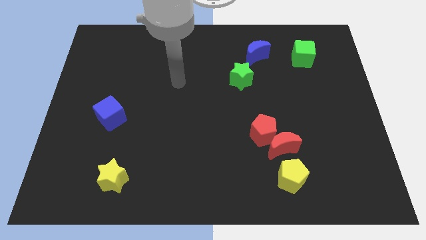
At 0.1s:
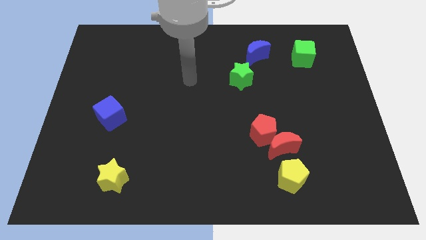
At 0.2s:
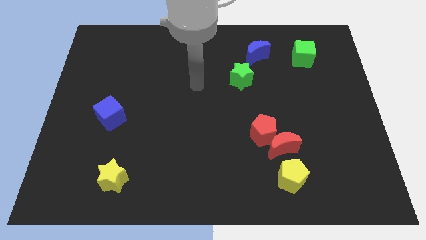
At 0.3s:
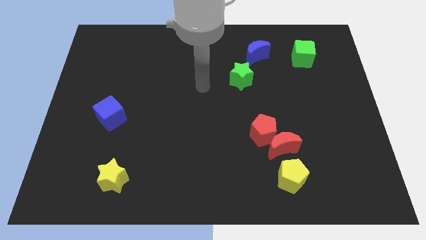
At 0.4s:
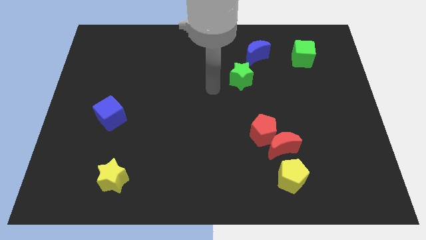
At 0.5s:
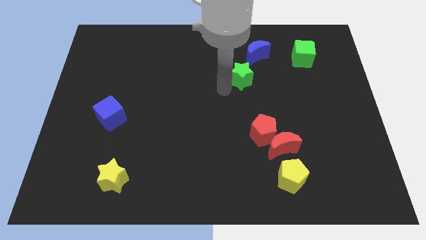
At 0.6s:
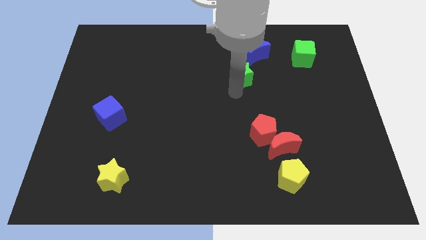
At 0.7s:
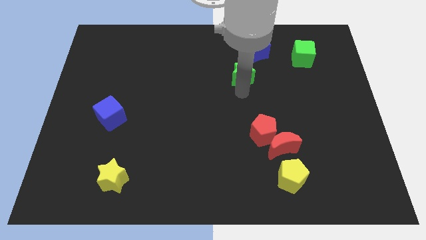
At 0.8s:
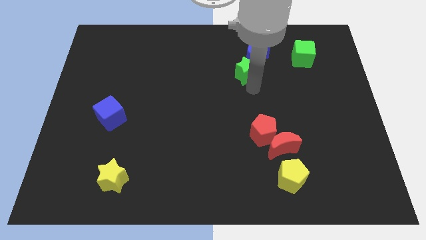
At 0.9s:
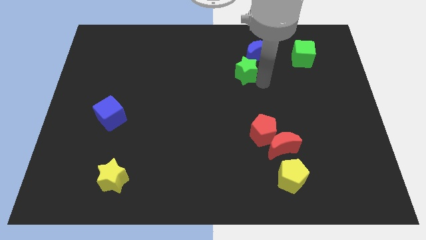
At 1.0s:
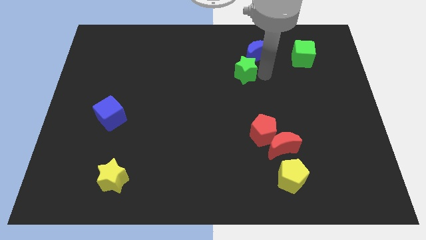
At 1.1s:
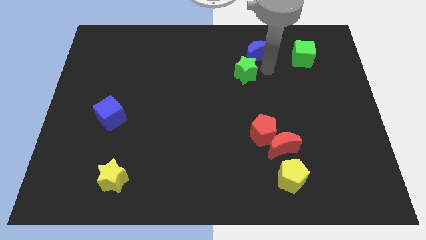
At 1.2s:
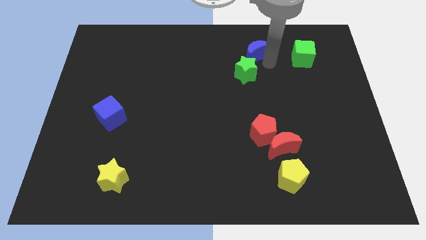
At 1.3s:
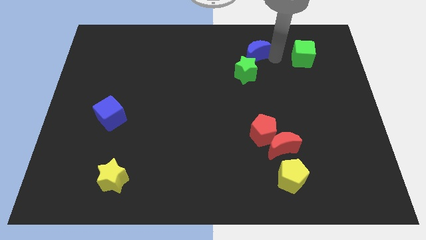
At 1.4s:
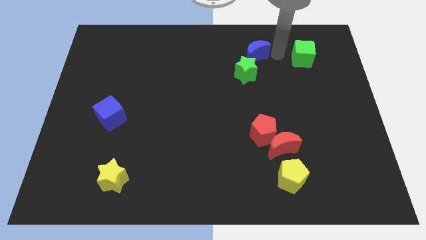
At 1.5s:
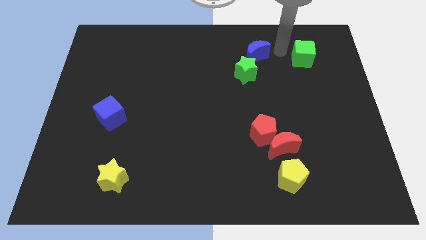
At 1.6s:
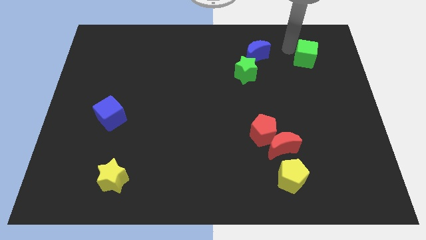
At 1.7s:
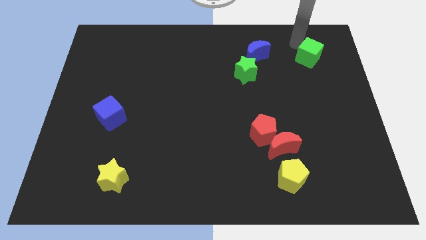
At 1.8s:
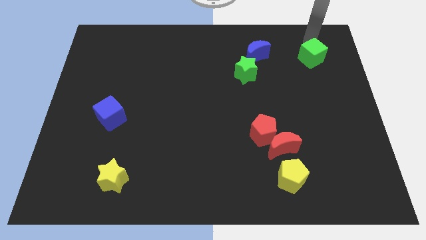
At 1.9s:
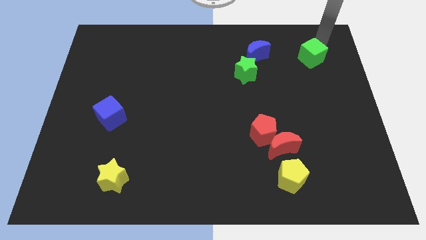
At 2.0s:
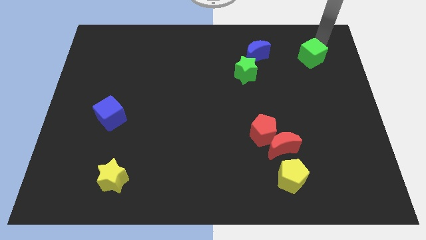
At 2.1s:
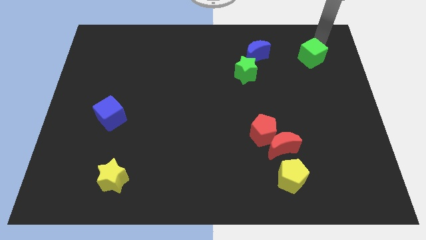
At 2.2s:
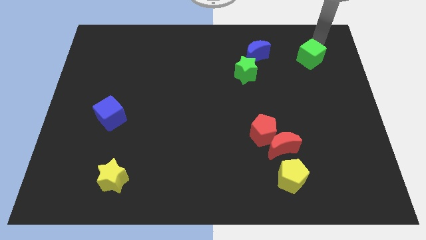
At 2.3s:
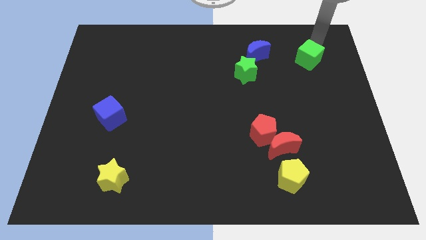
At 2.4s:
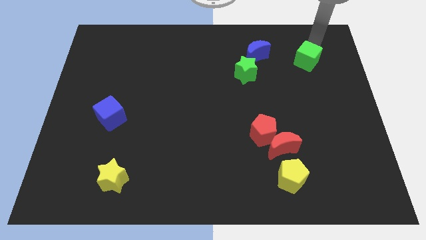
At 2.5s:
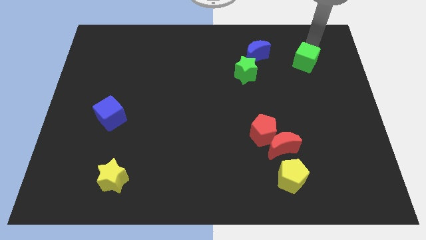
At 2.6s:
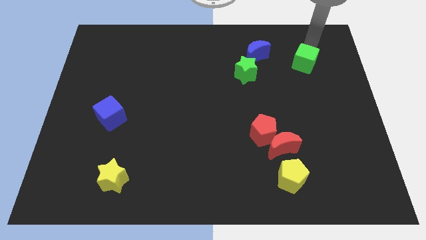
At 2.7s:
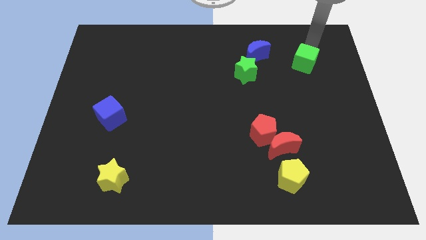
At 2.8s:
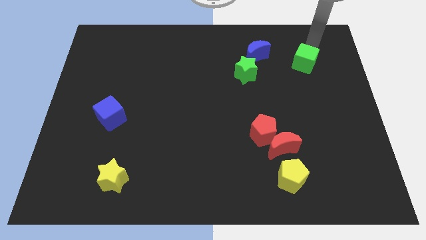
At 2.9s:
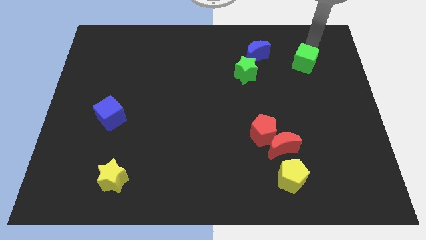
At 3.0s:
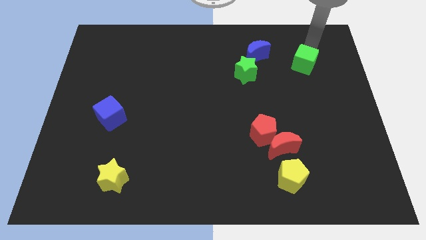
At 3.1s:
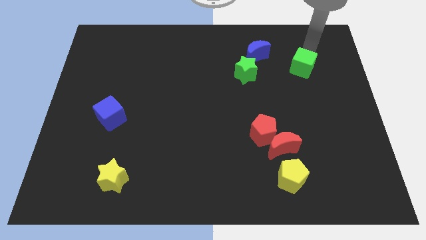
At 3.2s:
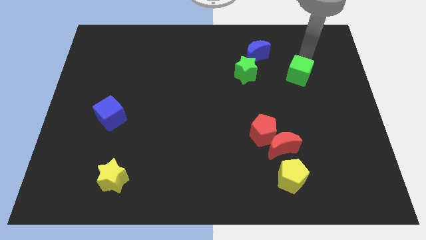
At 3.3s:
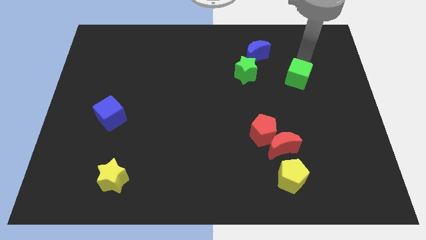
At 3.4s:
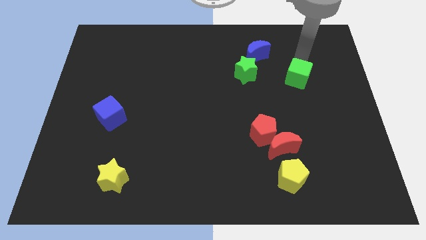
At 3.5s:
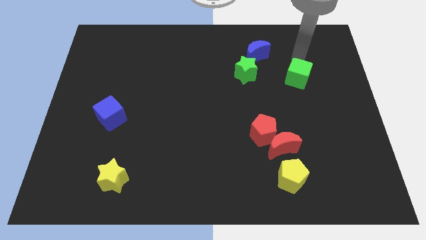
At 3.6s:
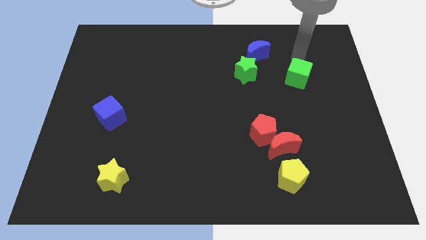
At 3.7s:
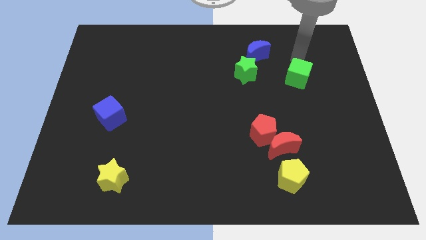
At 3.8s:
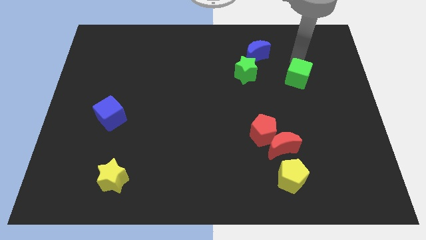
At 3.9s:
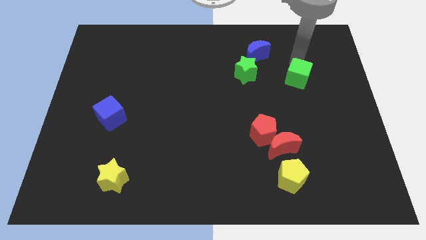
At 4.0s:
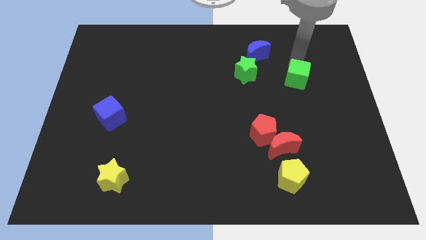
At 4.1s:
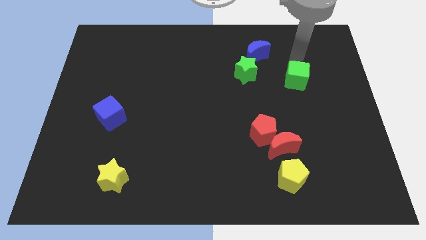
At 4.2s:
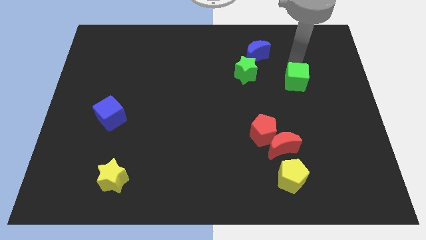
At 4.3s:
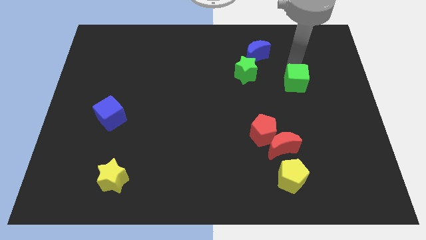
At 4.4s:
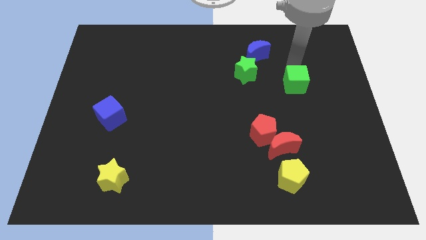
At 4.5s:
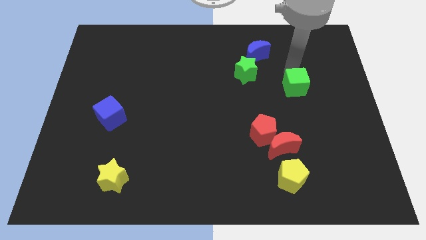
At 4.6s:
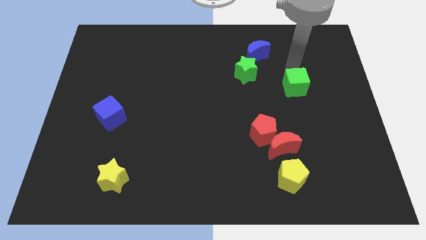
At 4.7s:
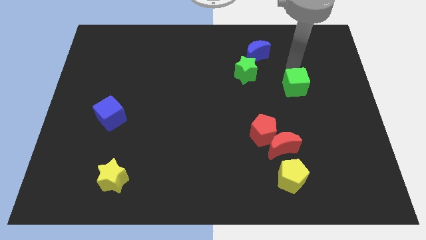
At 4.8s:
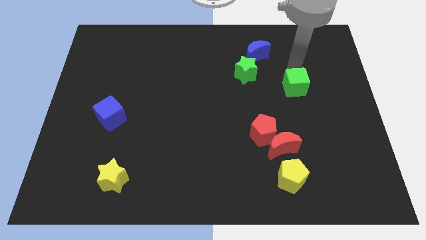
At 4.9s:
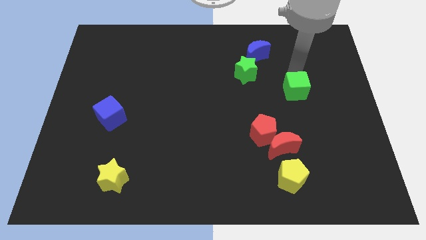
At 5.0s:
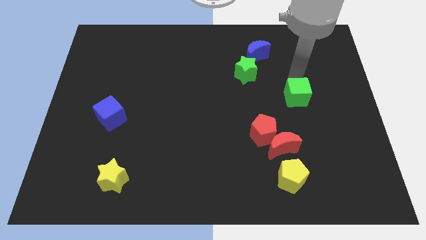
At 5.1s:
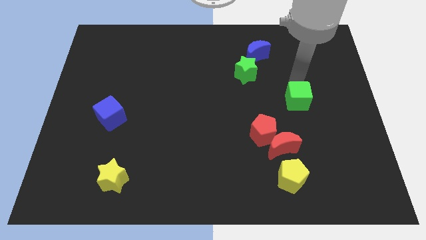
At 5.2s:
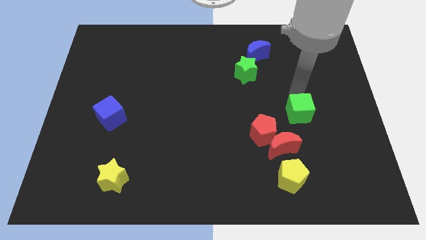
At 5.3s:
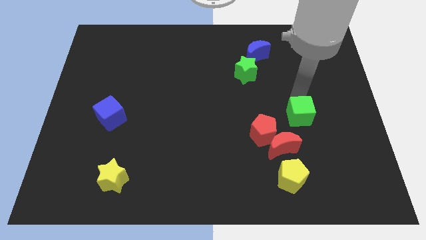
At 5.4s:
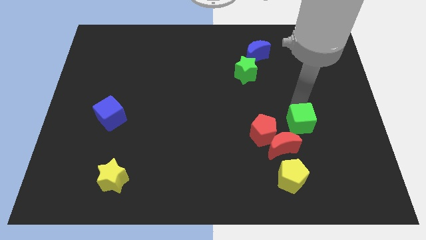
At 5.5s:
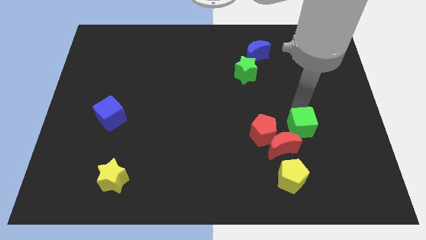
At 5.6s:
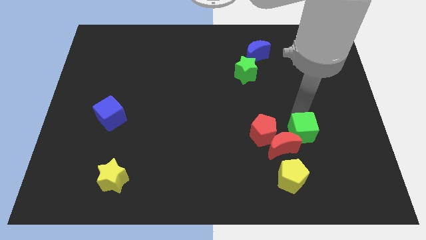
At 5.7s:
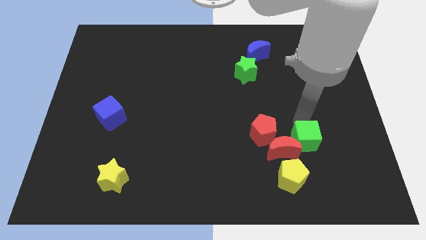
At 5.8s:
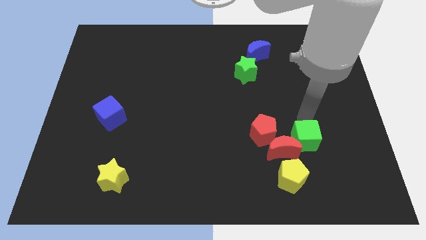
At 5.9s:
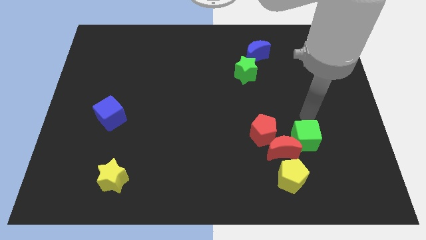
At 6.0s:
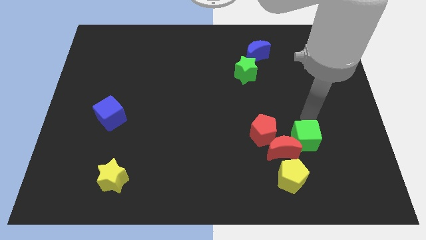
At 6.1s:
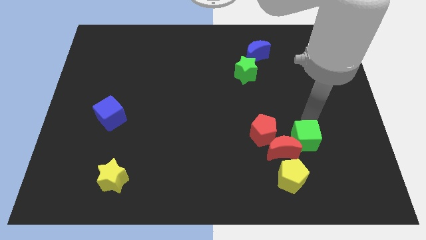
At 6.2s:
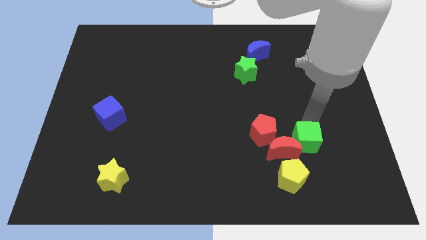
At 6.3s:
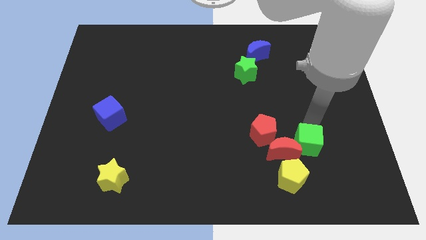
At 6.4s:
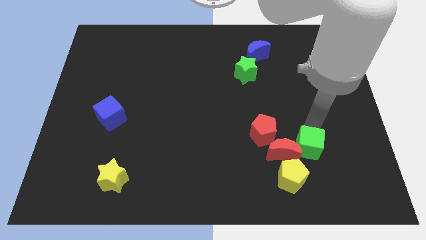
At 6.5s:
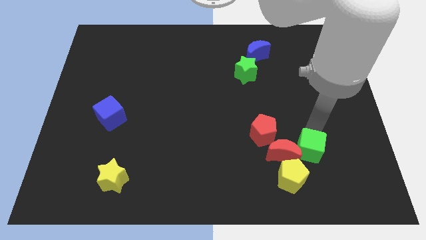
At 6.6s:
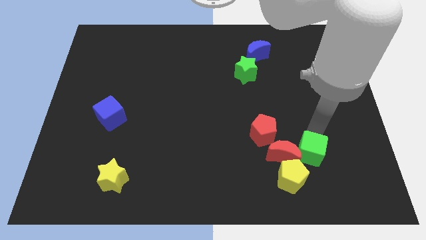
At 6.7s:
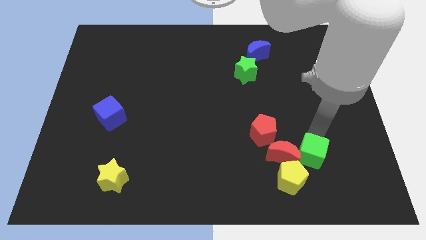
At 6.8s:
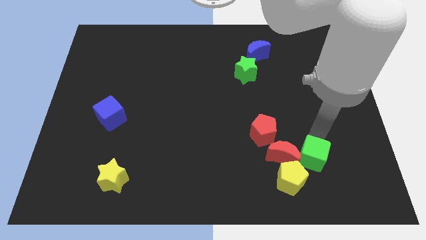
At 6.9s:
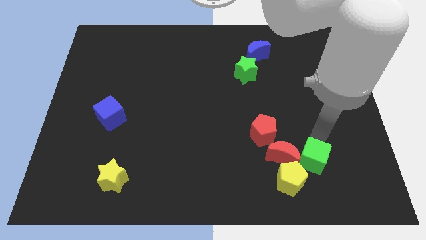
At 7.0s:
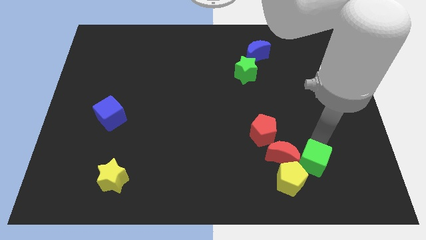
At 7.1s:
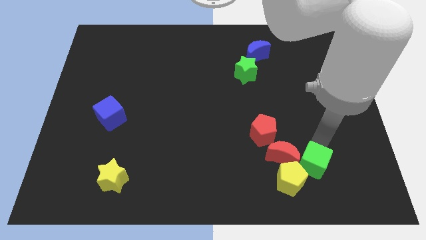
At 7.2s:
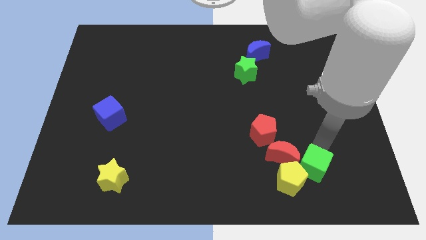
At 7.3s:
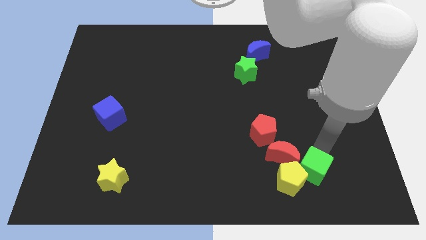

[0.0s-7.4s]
put the green cube next to the yellow pentagon
